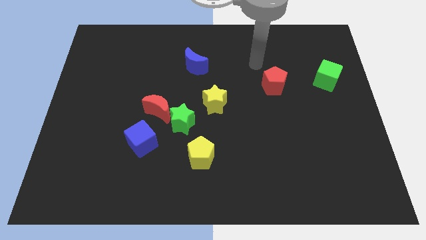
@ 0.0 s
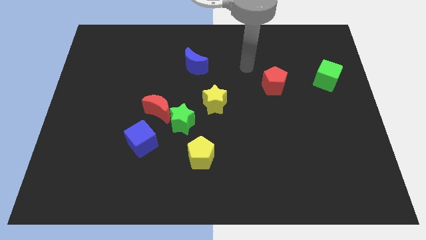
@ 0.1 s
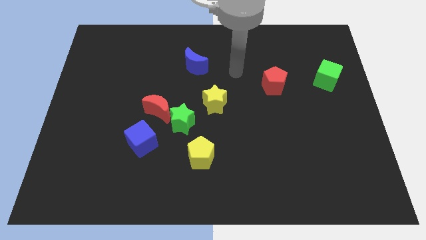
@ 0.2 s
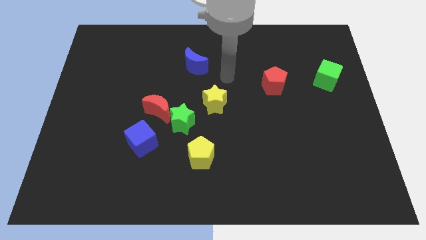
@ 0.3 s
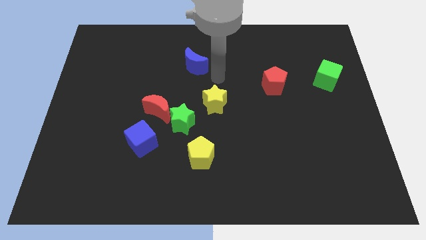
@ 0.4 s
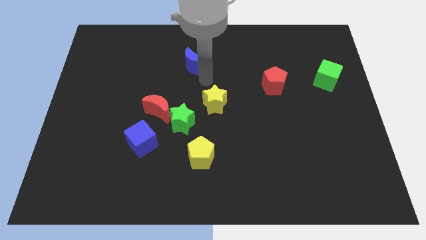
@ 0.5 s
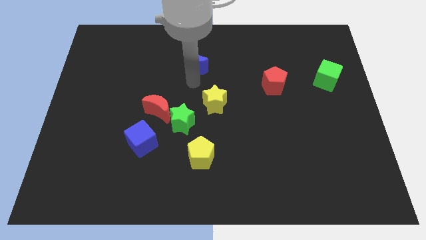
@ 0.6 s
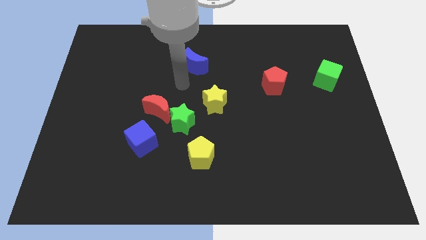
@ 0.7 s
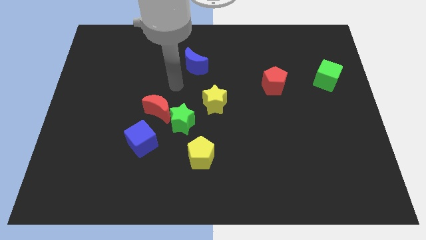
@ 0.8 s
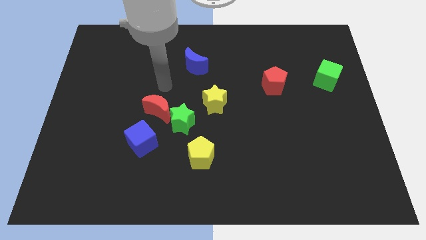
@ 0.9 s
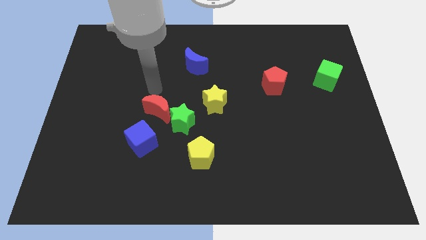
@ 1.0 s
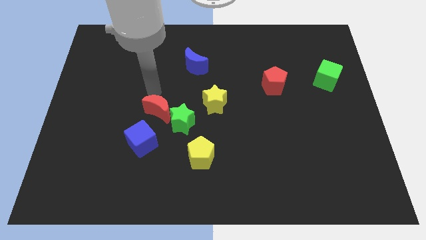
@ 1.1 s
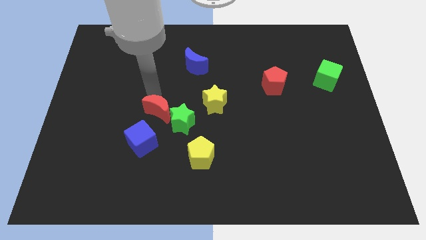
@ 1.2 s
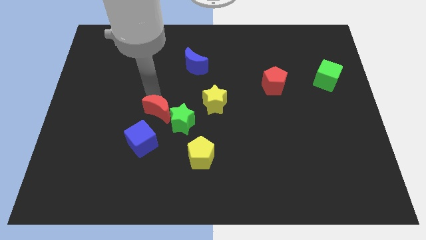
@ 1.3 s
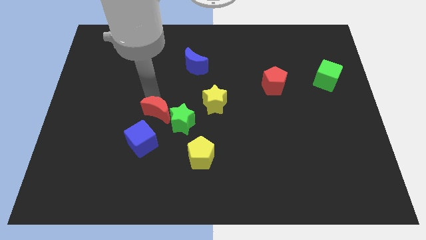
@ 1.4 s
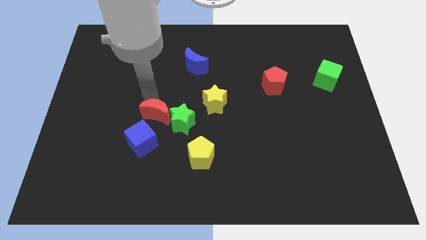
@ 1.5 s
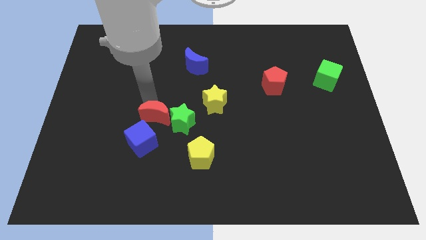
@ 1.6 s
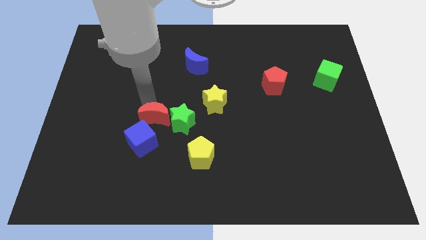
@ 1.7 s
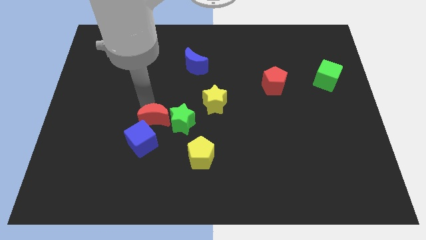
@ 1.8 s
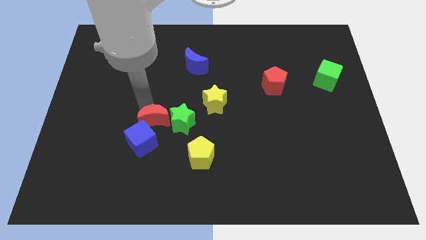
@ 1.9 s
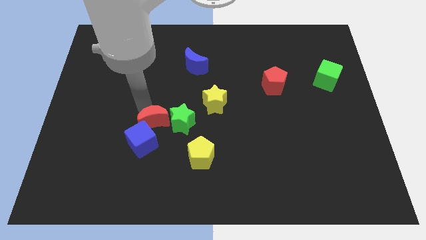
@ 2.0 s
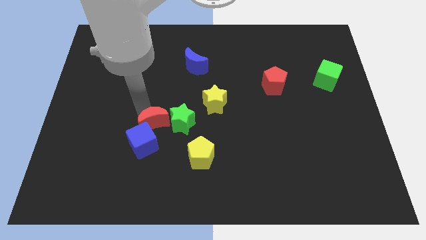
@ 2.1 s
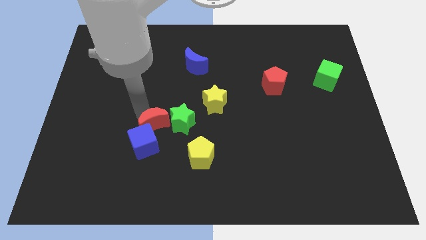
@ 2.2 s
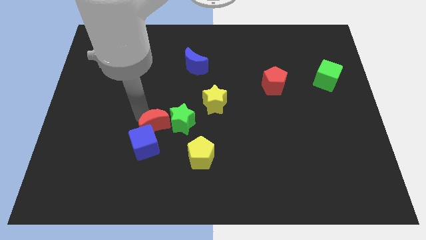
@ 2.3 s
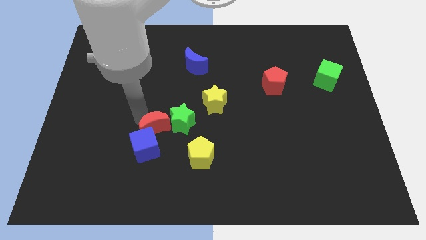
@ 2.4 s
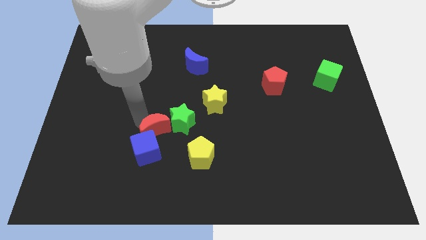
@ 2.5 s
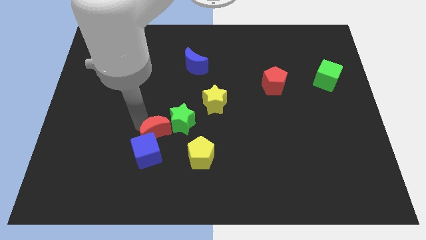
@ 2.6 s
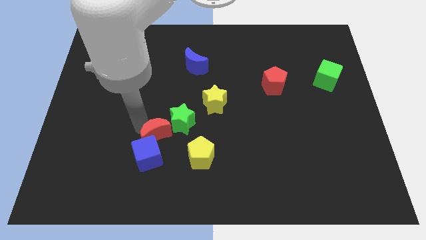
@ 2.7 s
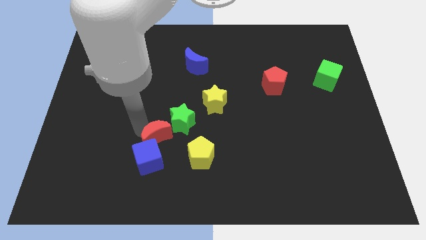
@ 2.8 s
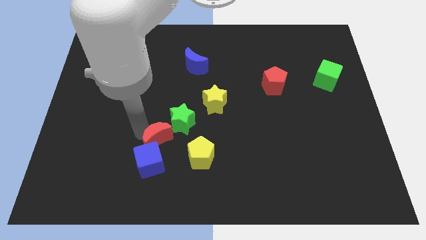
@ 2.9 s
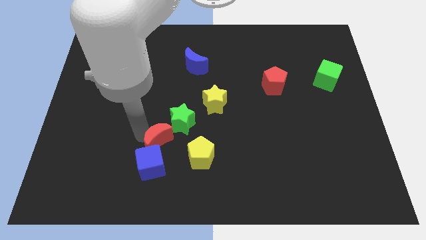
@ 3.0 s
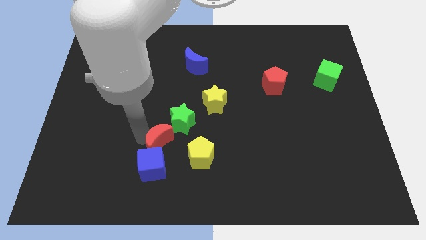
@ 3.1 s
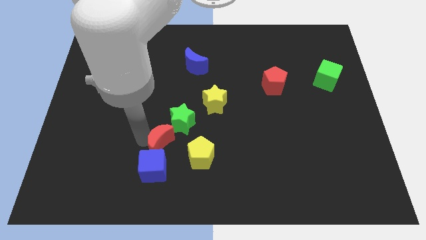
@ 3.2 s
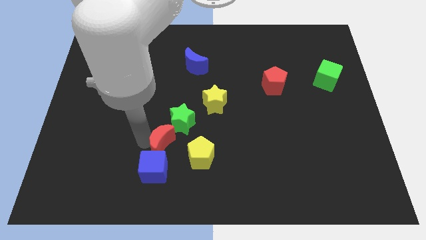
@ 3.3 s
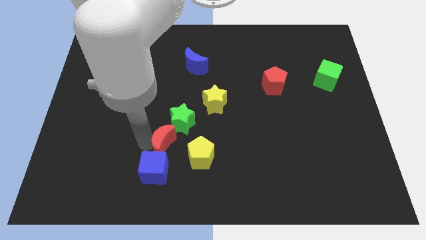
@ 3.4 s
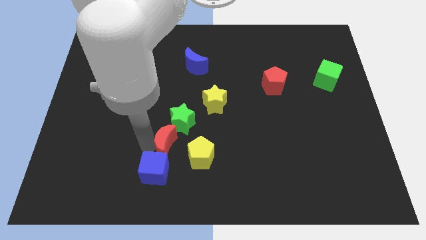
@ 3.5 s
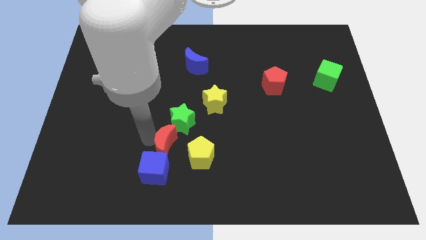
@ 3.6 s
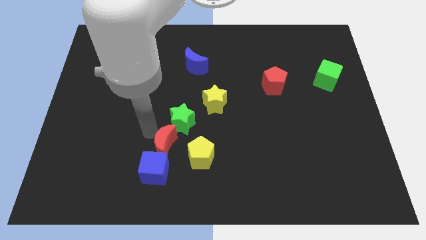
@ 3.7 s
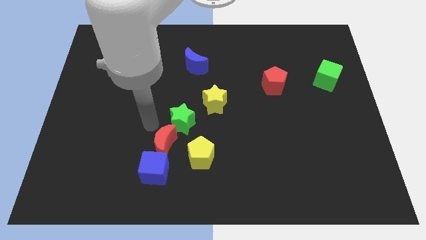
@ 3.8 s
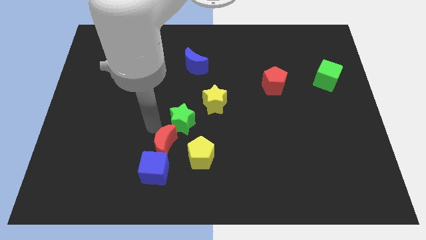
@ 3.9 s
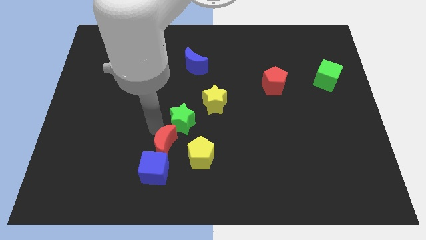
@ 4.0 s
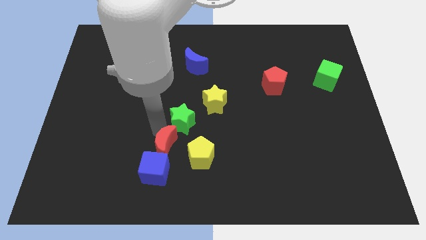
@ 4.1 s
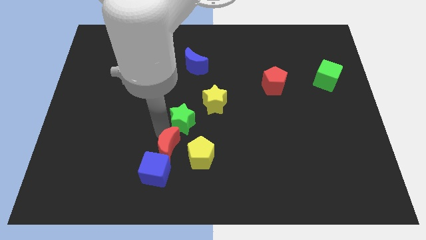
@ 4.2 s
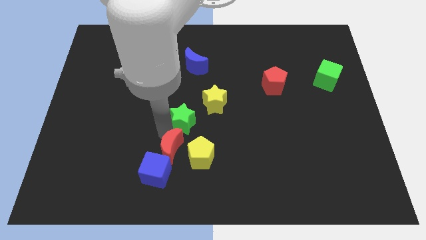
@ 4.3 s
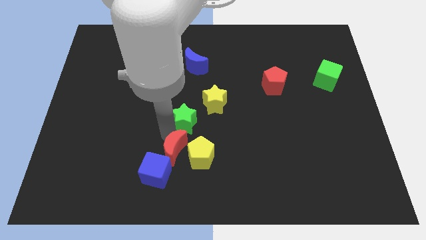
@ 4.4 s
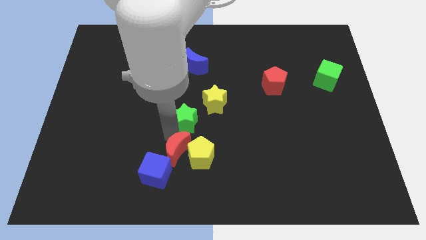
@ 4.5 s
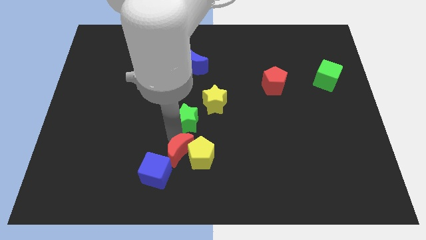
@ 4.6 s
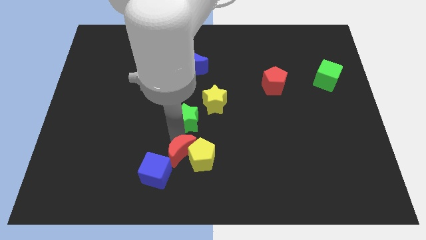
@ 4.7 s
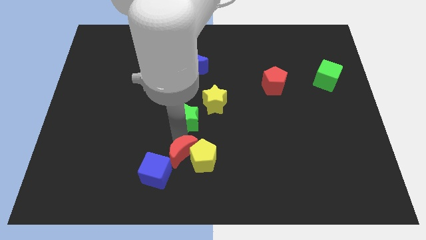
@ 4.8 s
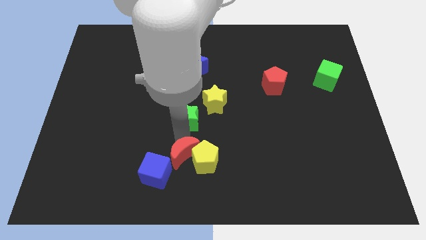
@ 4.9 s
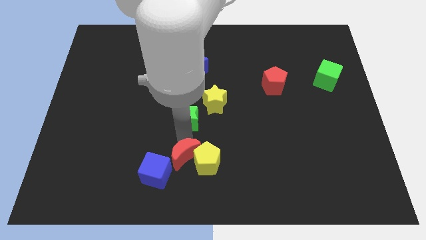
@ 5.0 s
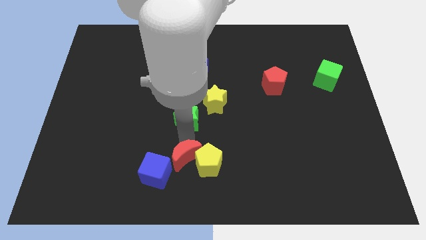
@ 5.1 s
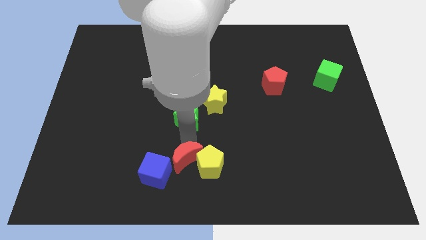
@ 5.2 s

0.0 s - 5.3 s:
put the red moon to the bottom

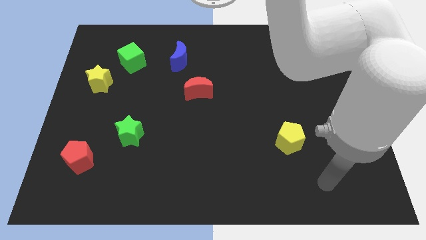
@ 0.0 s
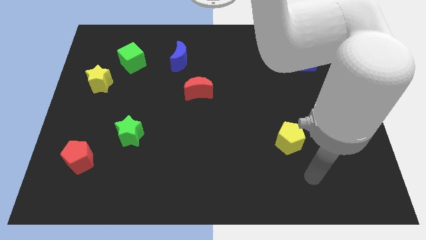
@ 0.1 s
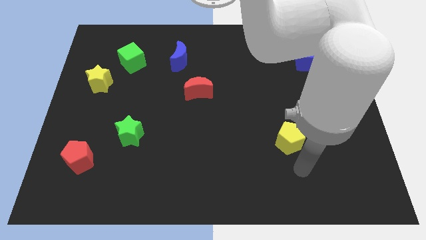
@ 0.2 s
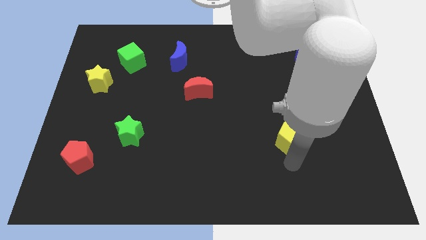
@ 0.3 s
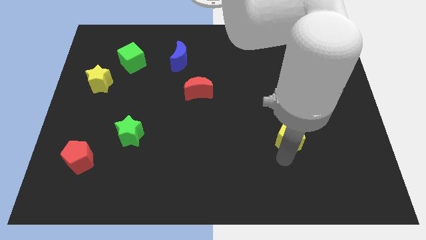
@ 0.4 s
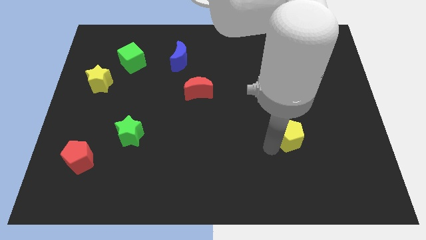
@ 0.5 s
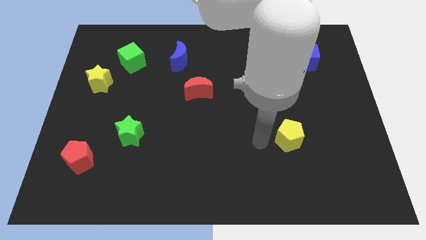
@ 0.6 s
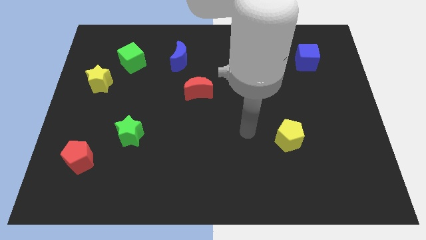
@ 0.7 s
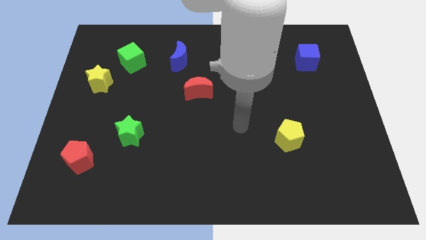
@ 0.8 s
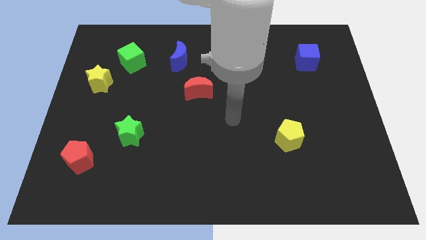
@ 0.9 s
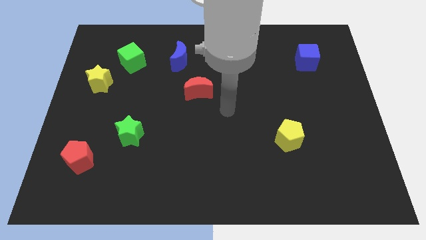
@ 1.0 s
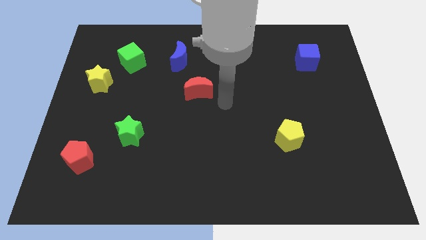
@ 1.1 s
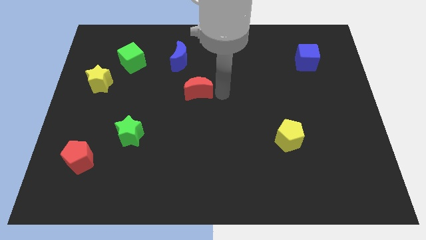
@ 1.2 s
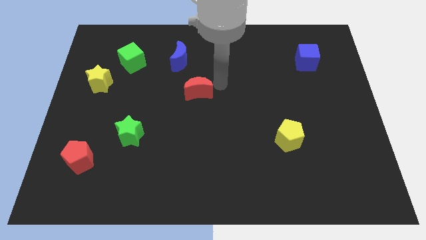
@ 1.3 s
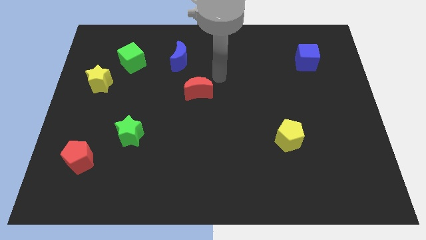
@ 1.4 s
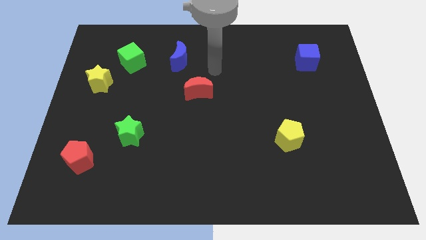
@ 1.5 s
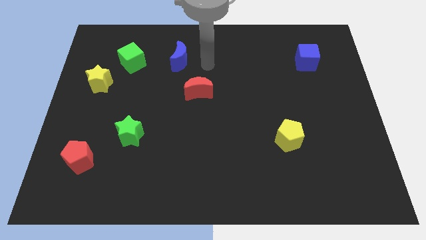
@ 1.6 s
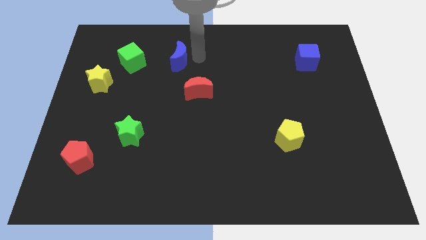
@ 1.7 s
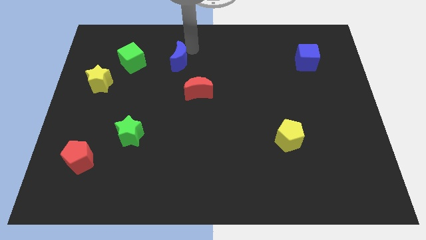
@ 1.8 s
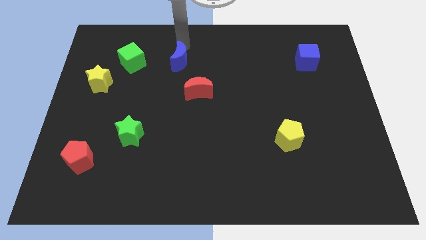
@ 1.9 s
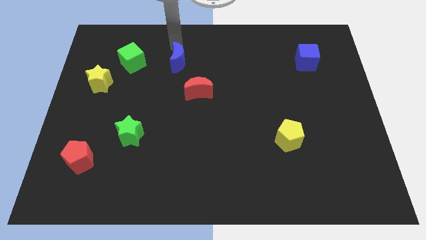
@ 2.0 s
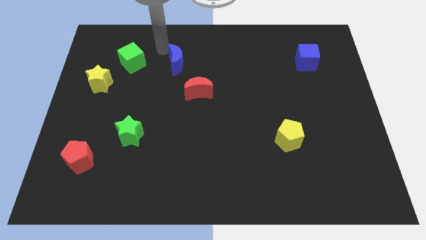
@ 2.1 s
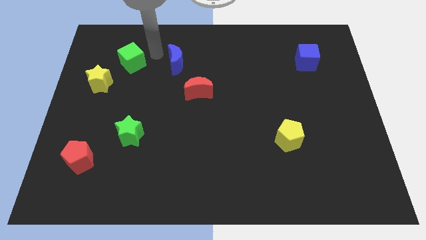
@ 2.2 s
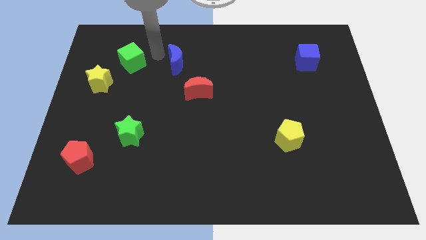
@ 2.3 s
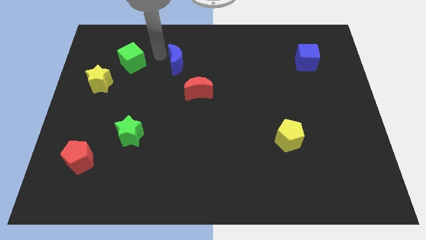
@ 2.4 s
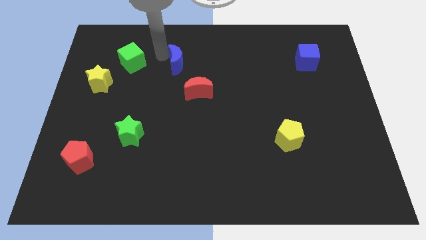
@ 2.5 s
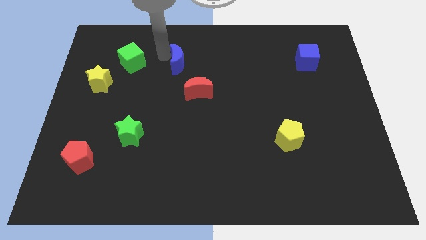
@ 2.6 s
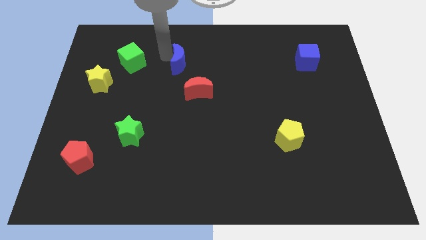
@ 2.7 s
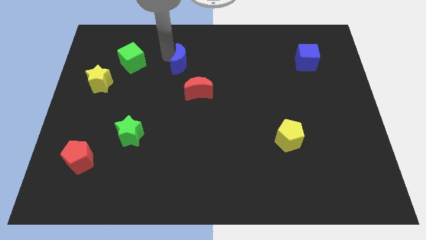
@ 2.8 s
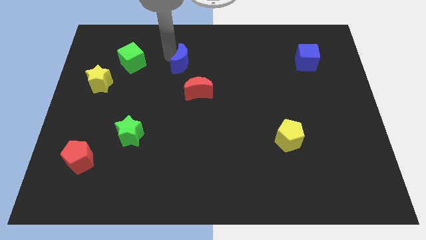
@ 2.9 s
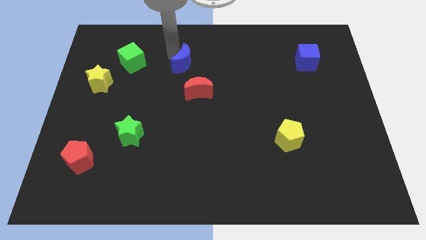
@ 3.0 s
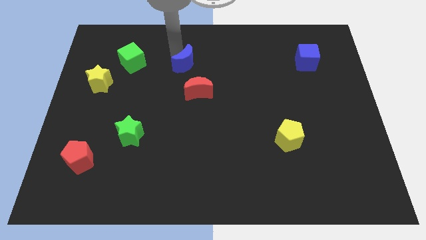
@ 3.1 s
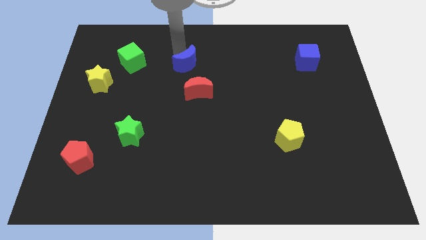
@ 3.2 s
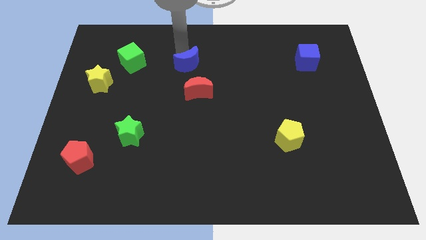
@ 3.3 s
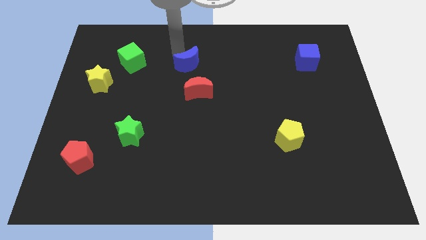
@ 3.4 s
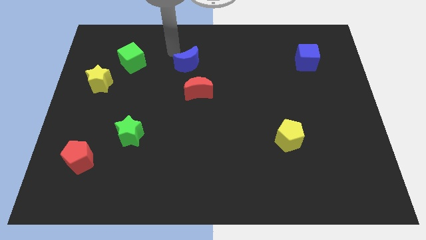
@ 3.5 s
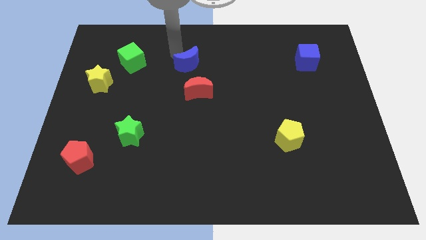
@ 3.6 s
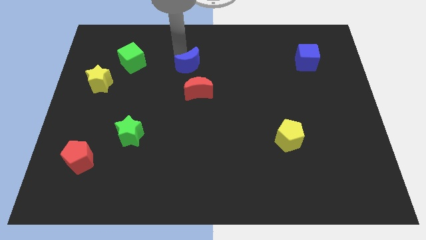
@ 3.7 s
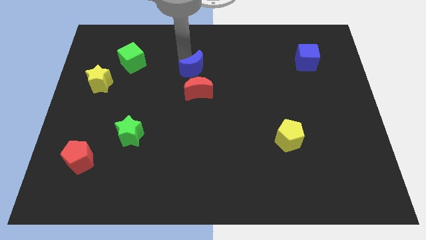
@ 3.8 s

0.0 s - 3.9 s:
slide the blue moon to the center of the board
